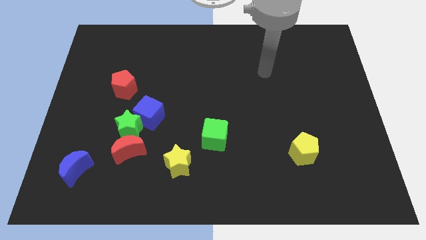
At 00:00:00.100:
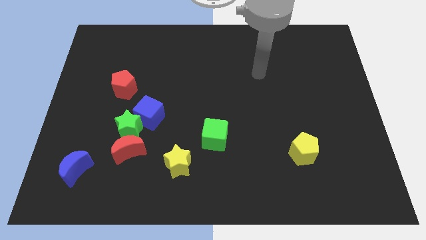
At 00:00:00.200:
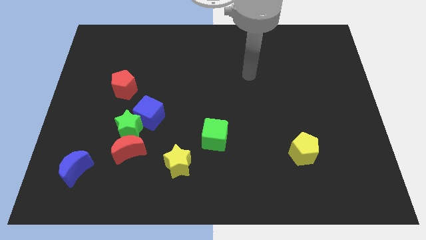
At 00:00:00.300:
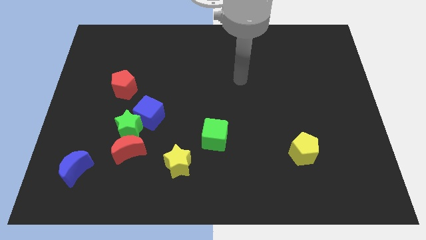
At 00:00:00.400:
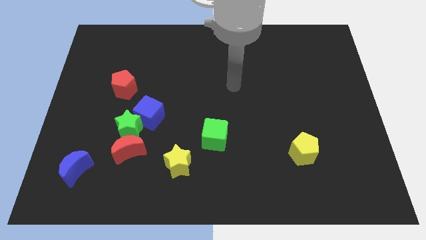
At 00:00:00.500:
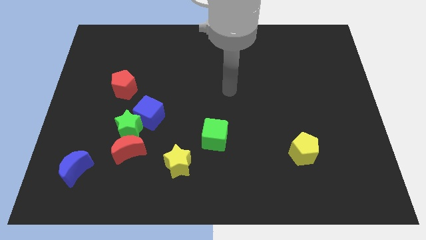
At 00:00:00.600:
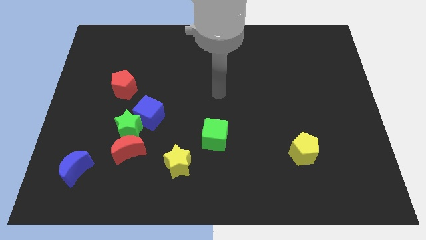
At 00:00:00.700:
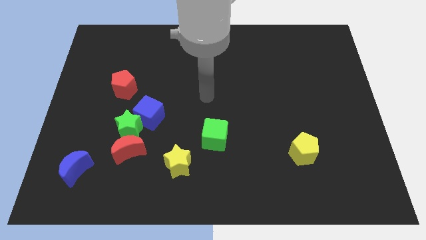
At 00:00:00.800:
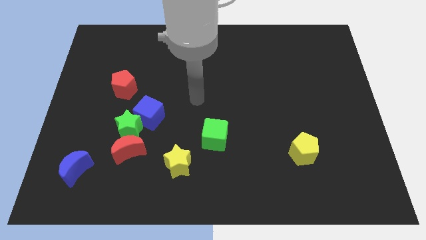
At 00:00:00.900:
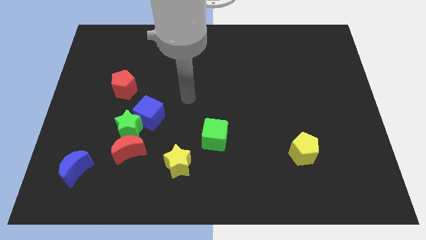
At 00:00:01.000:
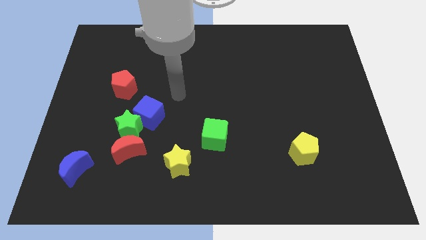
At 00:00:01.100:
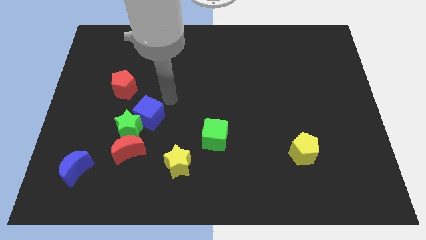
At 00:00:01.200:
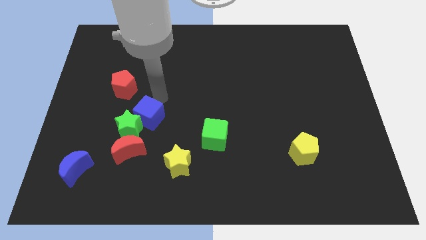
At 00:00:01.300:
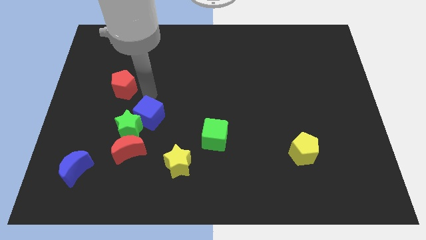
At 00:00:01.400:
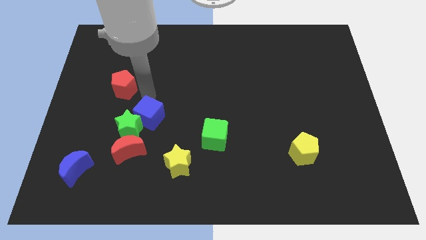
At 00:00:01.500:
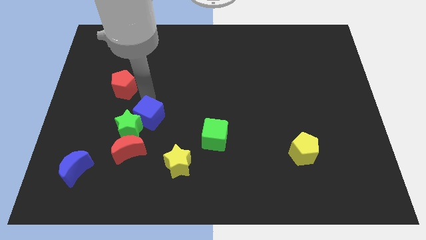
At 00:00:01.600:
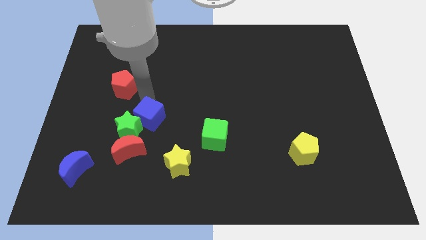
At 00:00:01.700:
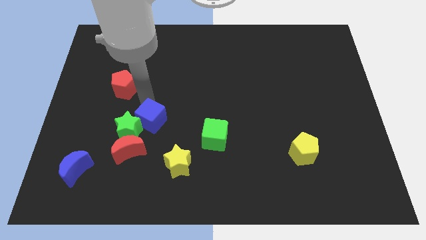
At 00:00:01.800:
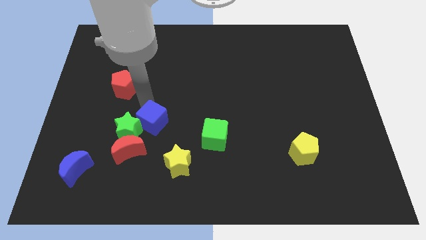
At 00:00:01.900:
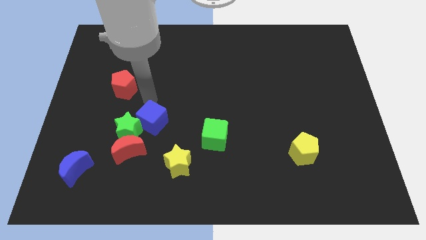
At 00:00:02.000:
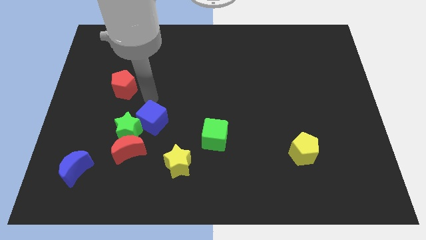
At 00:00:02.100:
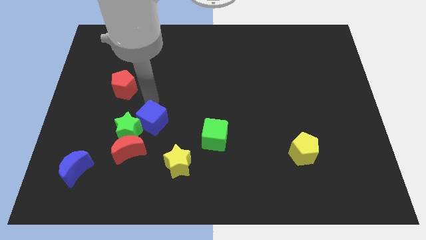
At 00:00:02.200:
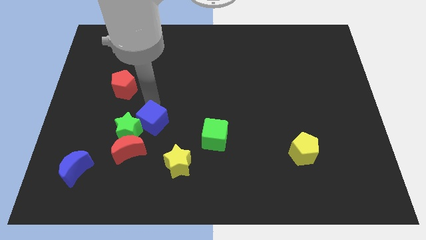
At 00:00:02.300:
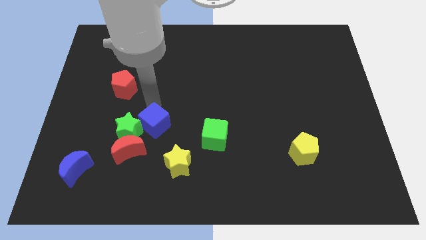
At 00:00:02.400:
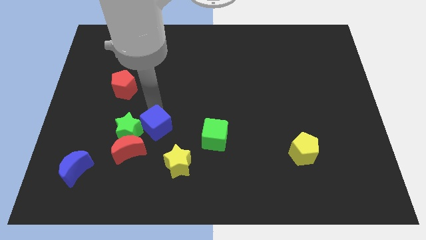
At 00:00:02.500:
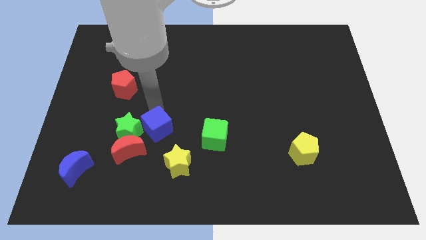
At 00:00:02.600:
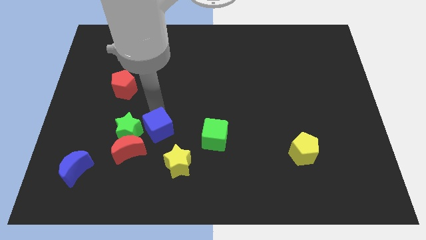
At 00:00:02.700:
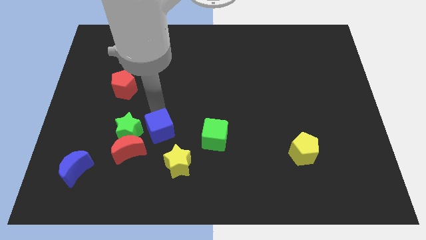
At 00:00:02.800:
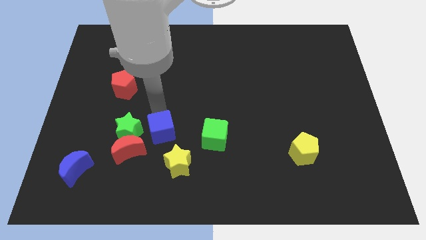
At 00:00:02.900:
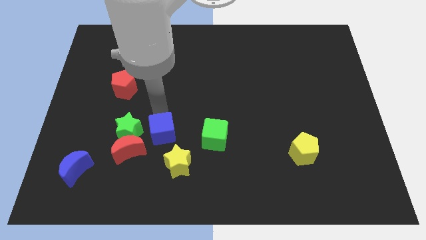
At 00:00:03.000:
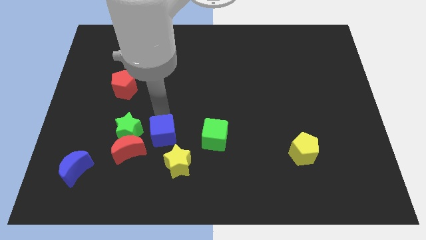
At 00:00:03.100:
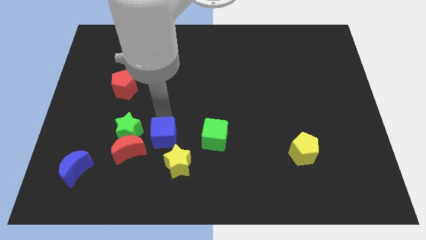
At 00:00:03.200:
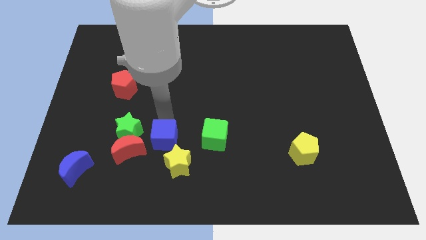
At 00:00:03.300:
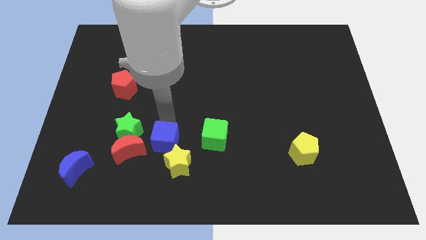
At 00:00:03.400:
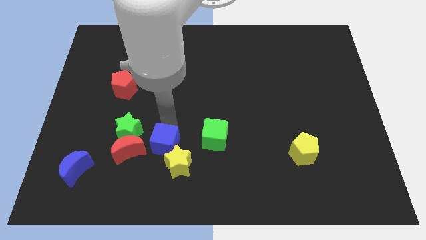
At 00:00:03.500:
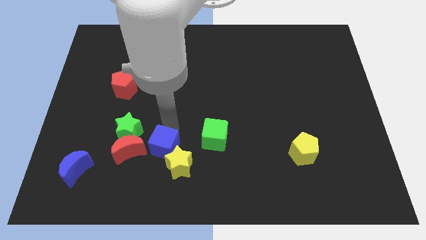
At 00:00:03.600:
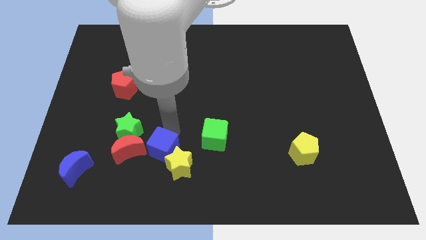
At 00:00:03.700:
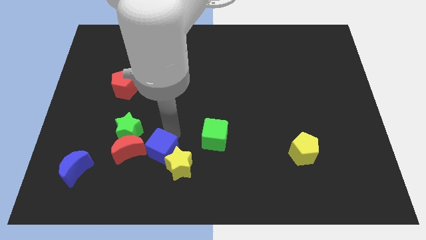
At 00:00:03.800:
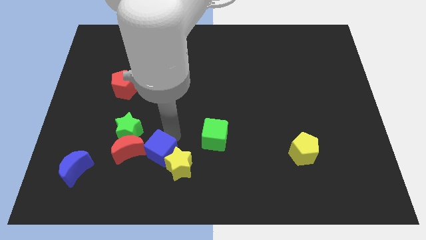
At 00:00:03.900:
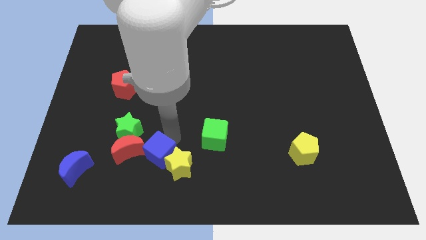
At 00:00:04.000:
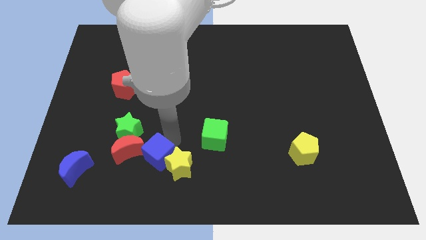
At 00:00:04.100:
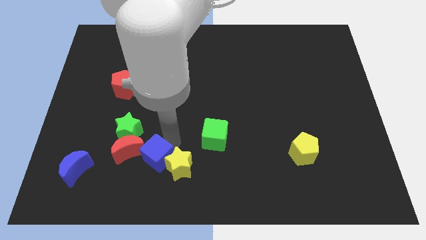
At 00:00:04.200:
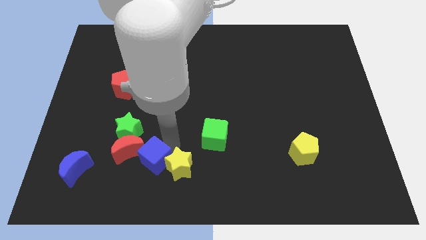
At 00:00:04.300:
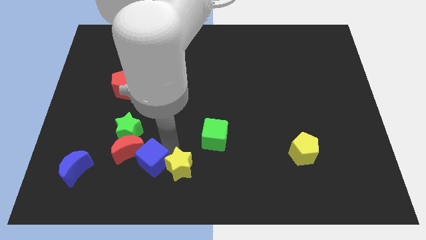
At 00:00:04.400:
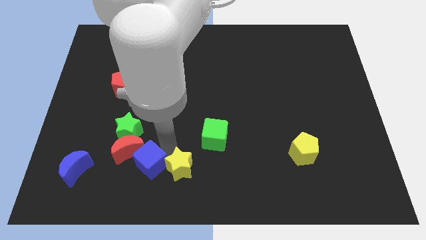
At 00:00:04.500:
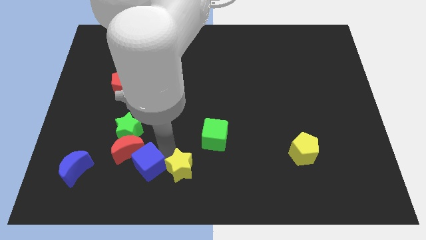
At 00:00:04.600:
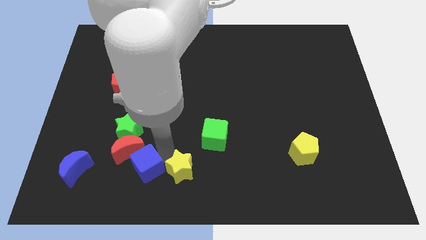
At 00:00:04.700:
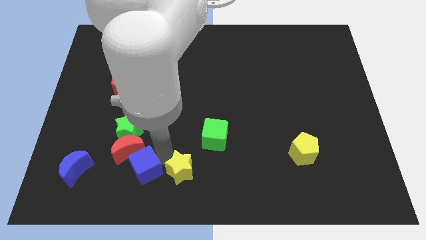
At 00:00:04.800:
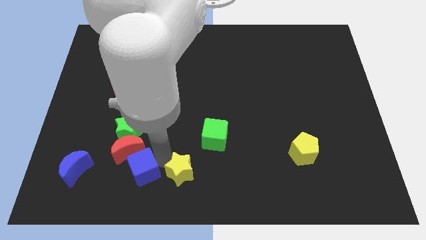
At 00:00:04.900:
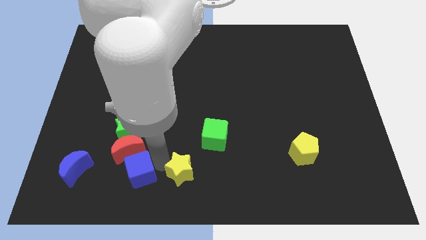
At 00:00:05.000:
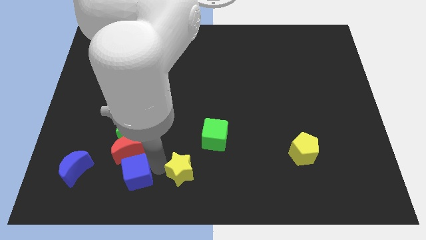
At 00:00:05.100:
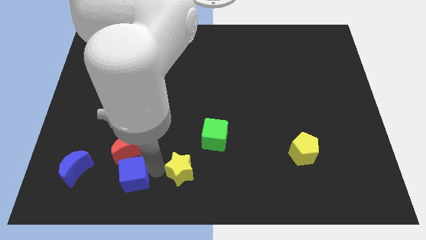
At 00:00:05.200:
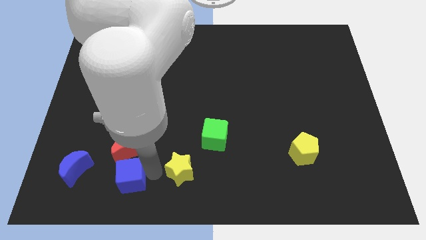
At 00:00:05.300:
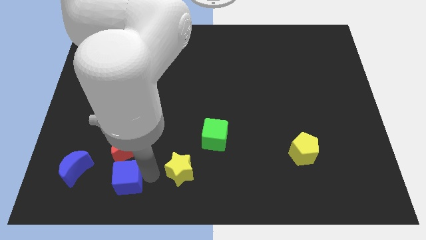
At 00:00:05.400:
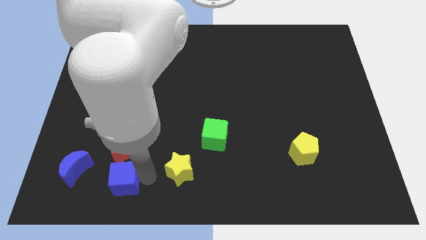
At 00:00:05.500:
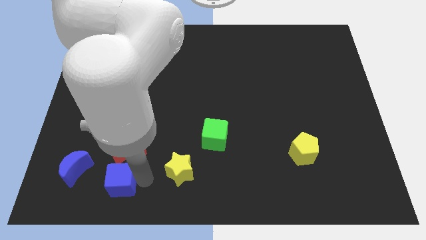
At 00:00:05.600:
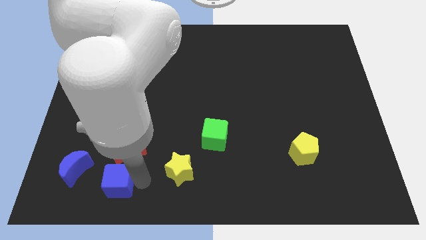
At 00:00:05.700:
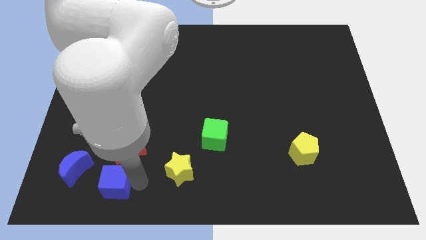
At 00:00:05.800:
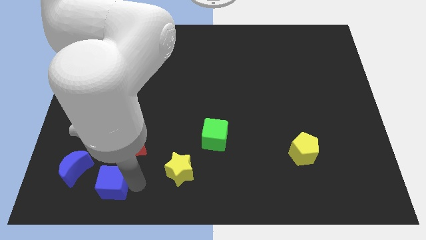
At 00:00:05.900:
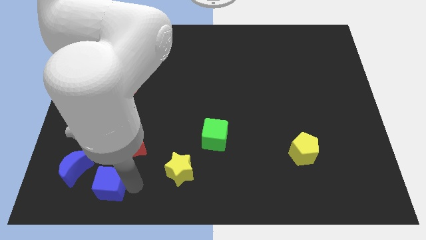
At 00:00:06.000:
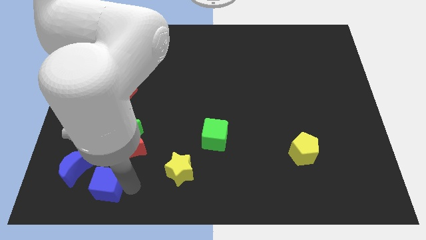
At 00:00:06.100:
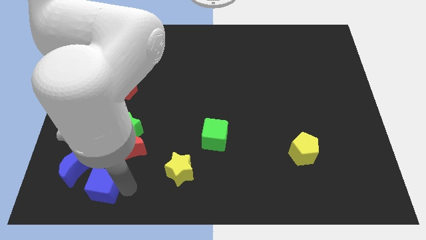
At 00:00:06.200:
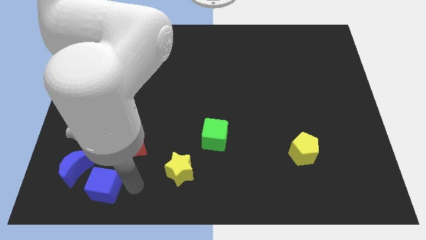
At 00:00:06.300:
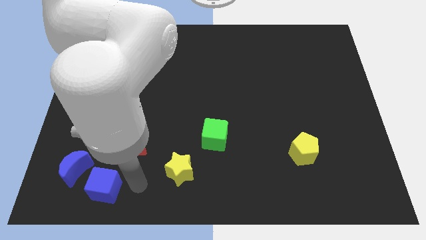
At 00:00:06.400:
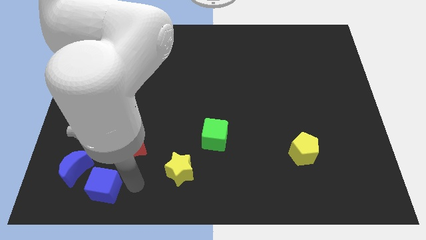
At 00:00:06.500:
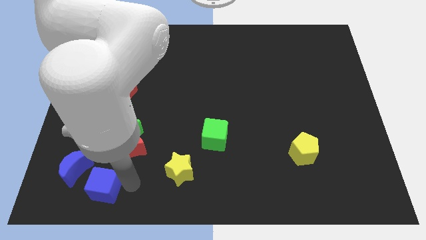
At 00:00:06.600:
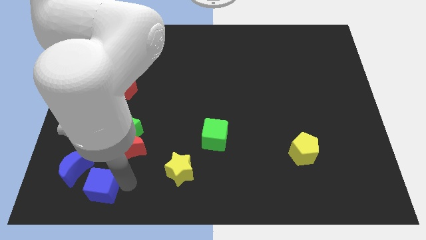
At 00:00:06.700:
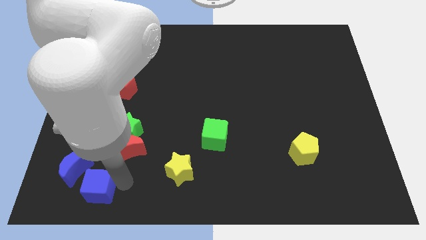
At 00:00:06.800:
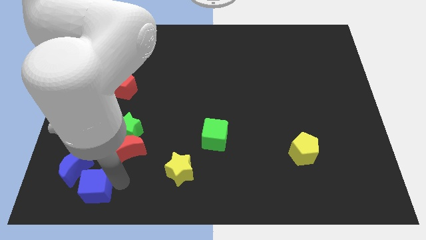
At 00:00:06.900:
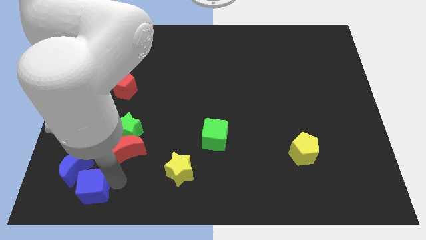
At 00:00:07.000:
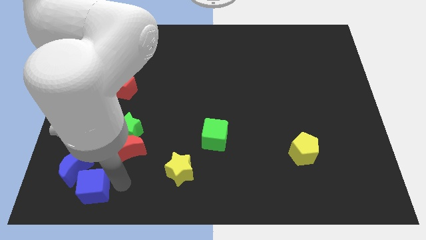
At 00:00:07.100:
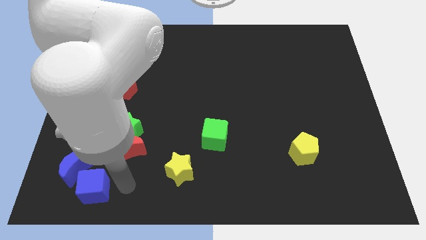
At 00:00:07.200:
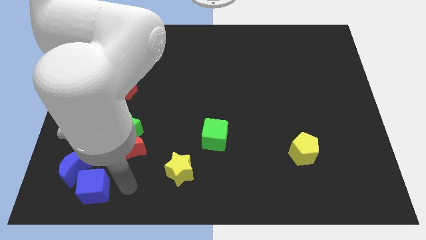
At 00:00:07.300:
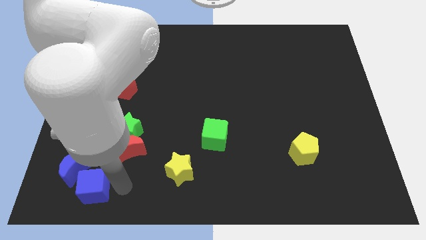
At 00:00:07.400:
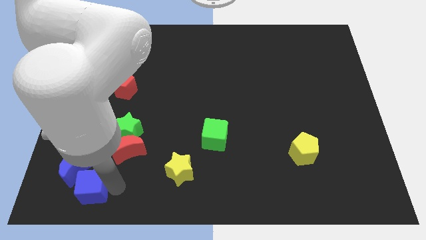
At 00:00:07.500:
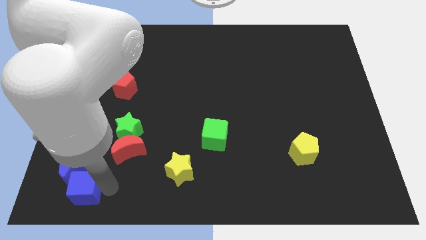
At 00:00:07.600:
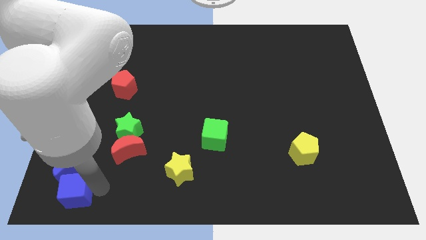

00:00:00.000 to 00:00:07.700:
slide the blue cube to the bottom left of the board
